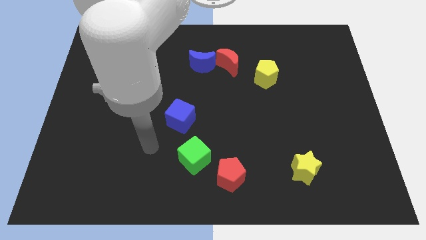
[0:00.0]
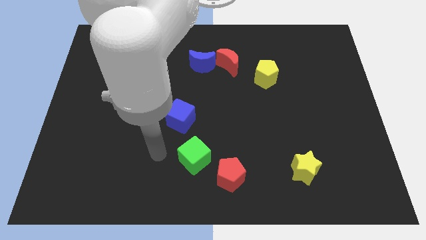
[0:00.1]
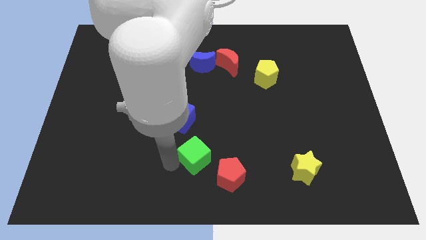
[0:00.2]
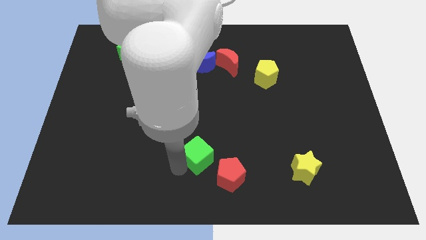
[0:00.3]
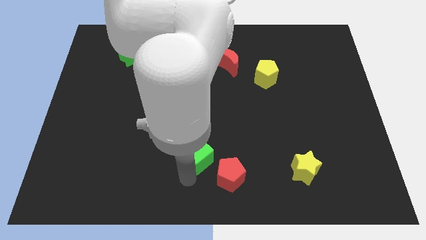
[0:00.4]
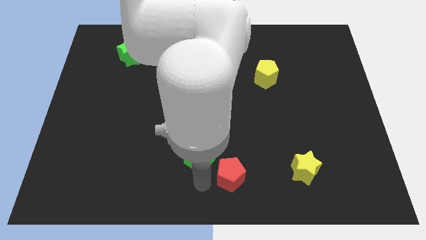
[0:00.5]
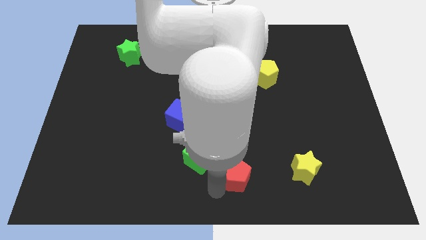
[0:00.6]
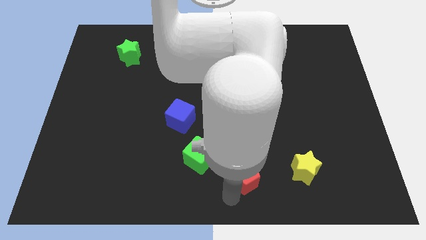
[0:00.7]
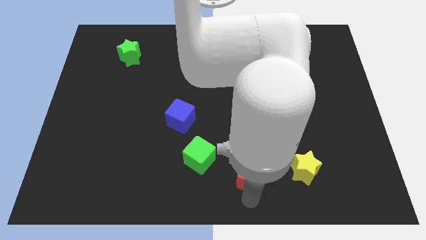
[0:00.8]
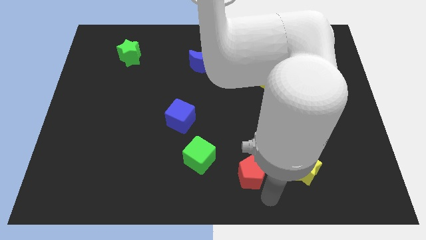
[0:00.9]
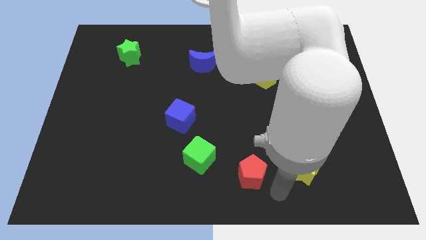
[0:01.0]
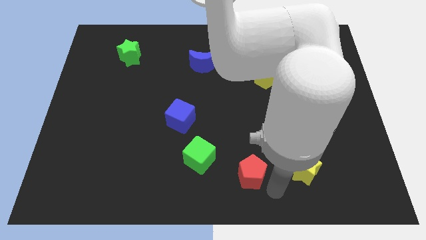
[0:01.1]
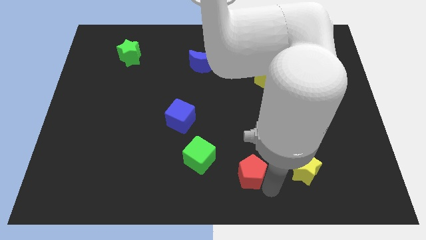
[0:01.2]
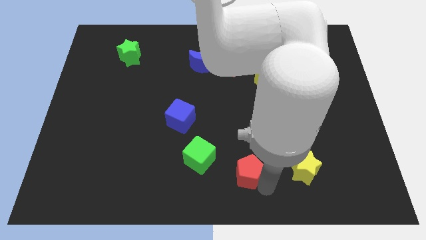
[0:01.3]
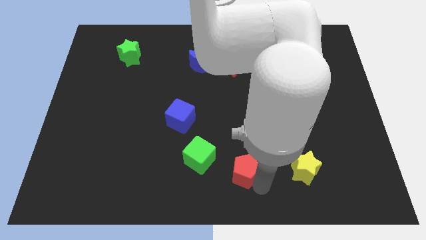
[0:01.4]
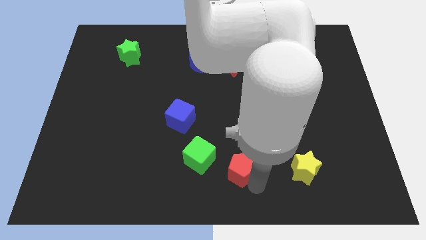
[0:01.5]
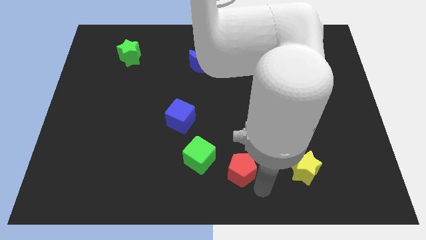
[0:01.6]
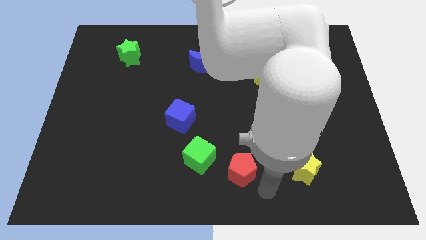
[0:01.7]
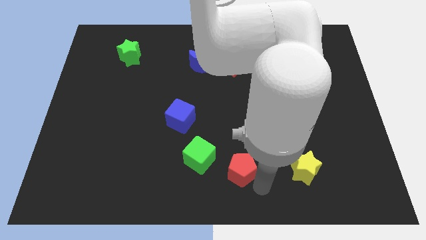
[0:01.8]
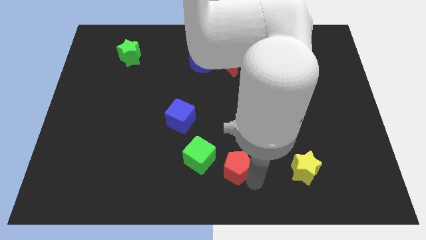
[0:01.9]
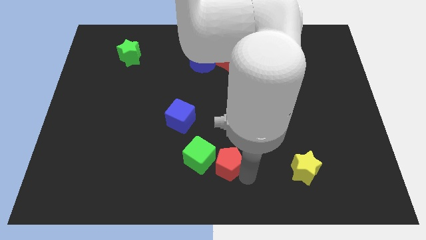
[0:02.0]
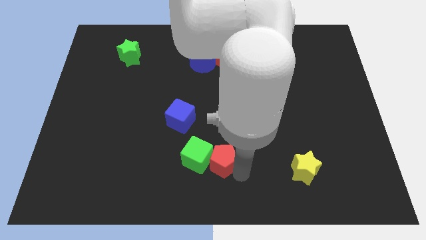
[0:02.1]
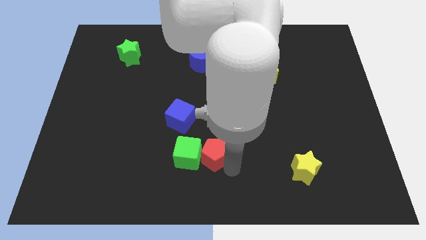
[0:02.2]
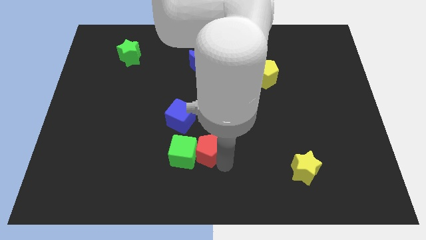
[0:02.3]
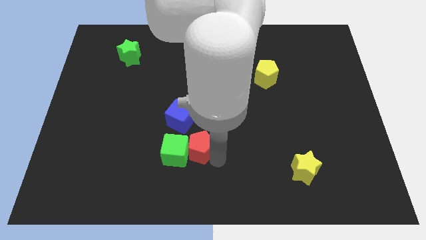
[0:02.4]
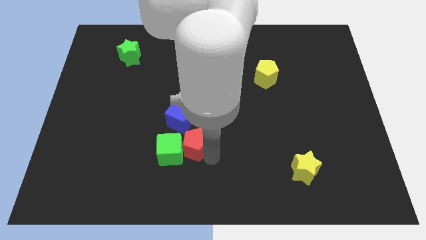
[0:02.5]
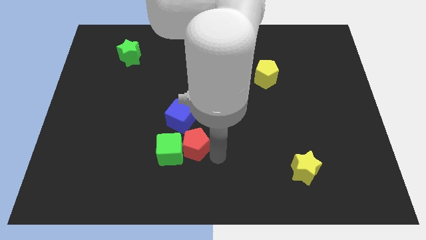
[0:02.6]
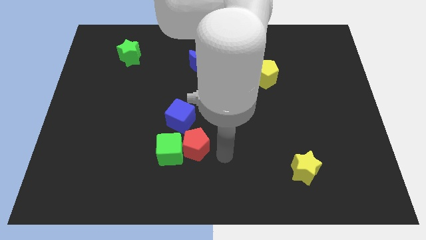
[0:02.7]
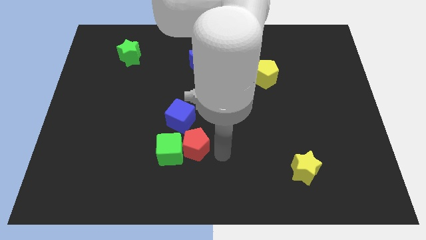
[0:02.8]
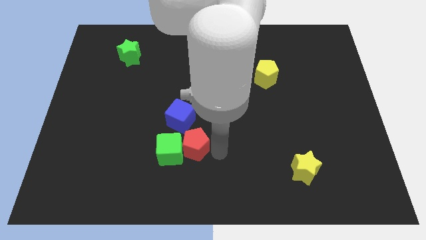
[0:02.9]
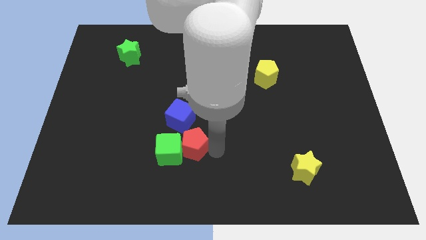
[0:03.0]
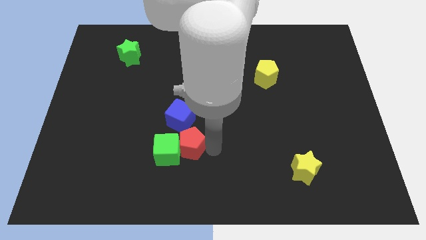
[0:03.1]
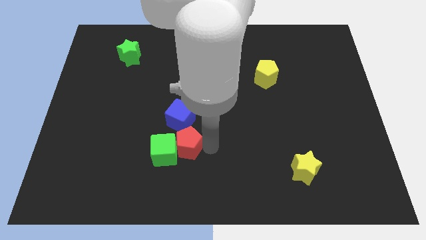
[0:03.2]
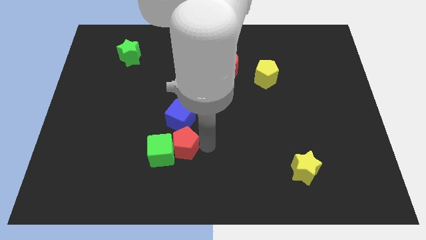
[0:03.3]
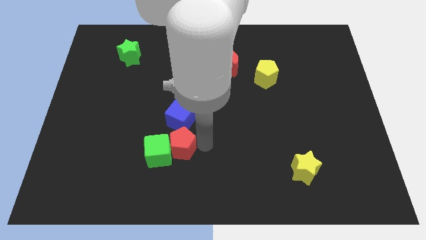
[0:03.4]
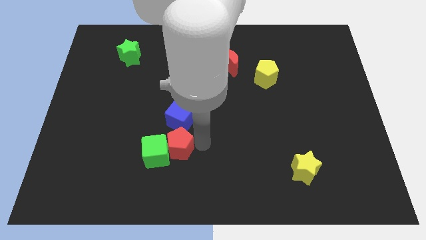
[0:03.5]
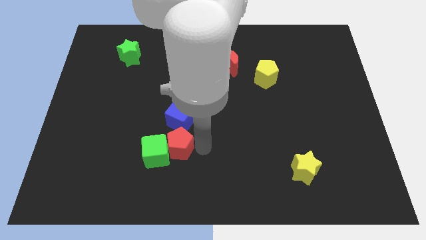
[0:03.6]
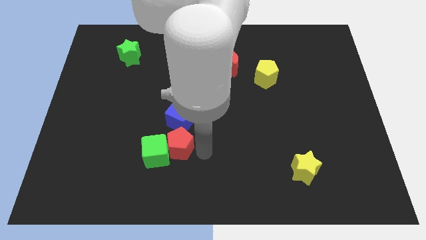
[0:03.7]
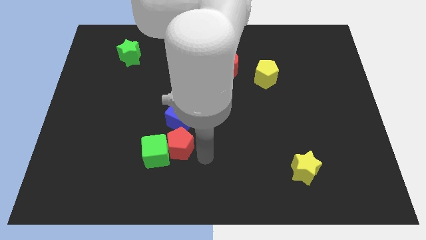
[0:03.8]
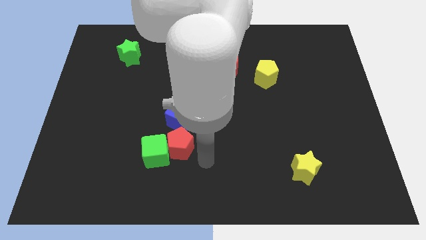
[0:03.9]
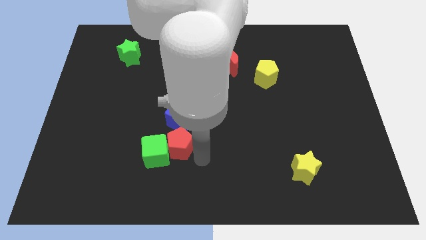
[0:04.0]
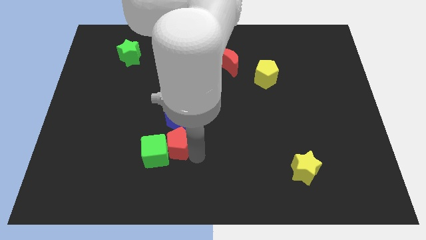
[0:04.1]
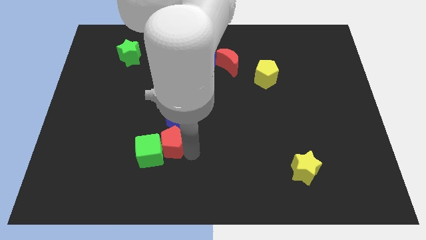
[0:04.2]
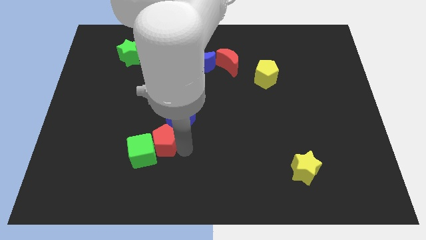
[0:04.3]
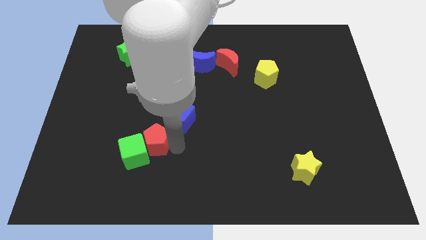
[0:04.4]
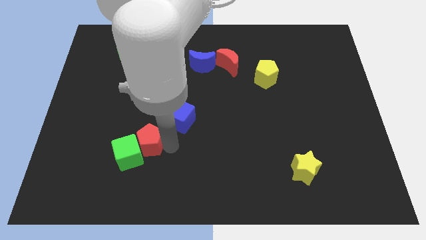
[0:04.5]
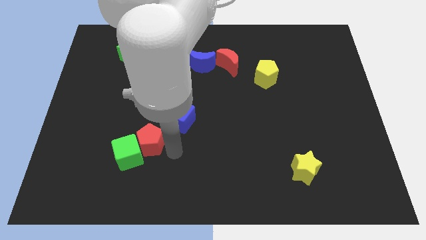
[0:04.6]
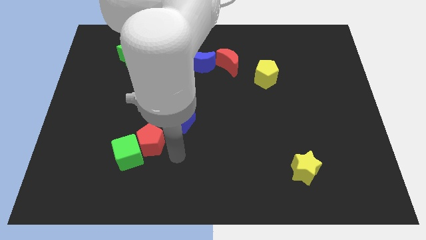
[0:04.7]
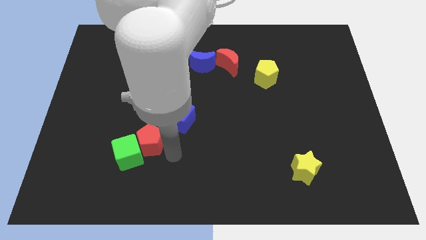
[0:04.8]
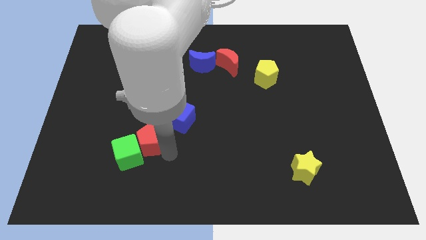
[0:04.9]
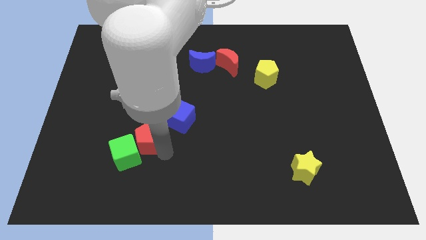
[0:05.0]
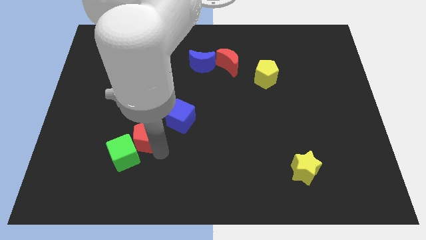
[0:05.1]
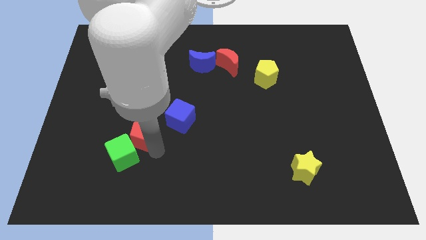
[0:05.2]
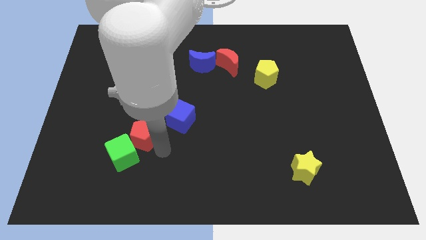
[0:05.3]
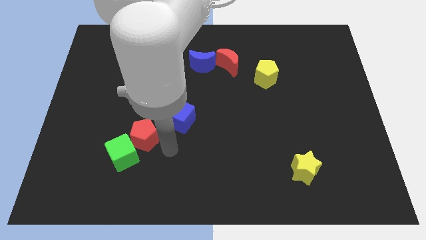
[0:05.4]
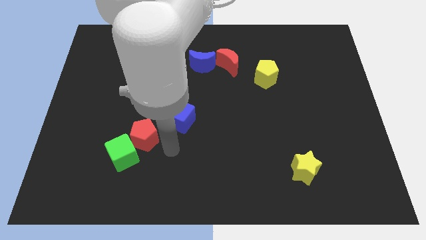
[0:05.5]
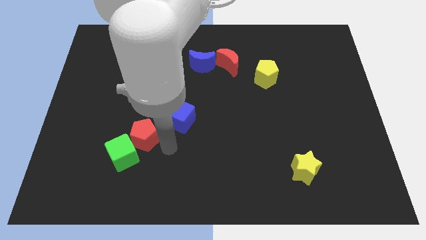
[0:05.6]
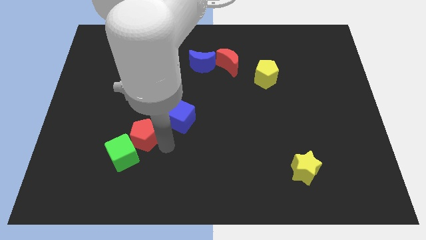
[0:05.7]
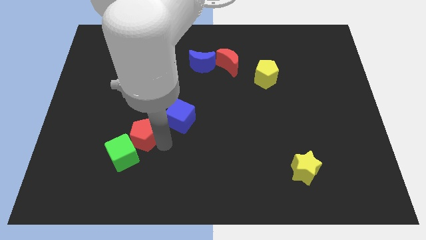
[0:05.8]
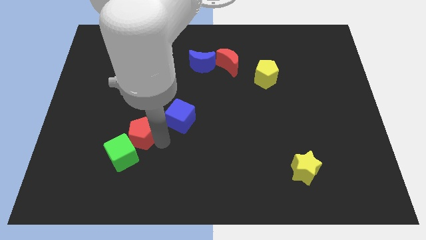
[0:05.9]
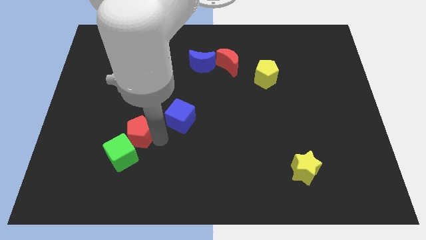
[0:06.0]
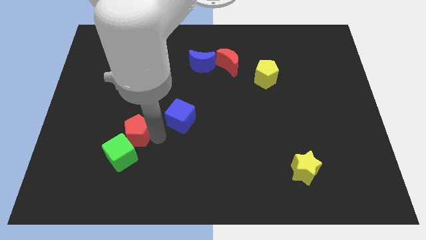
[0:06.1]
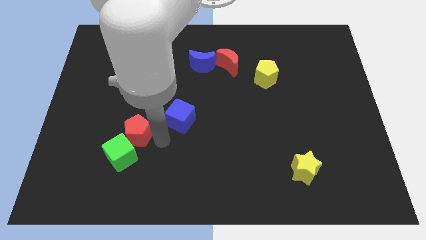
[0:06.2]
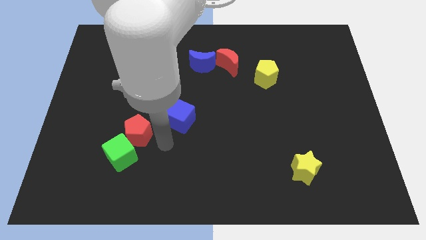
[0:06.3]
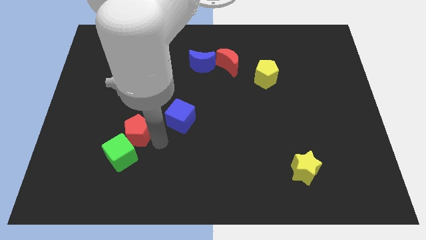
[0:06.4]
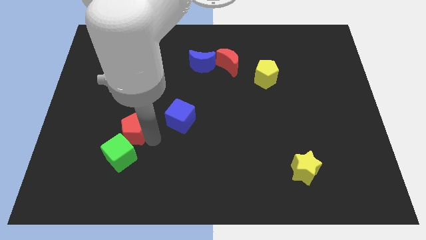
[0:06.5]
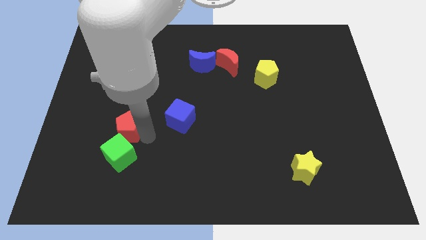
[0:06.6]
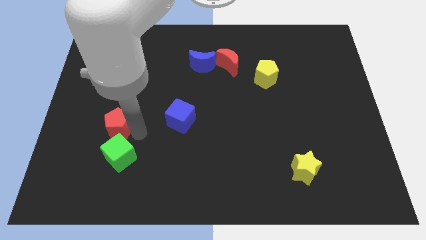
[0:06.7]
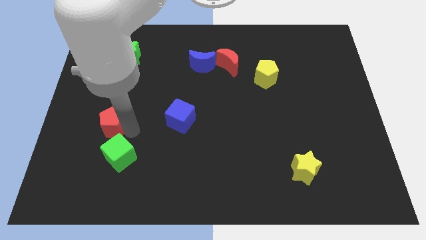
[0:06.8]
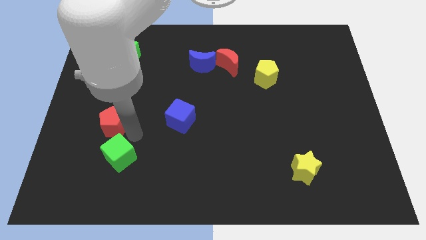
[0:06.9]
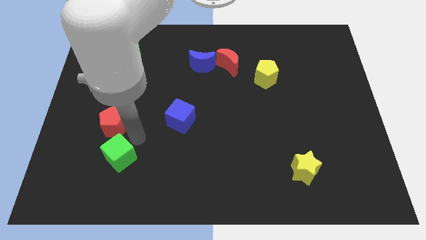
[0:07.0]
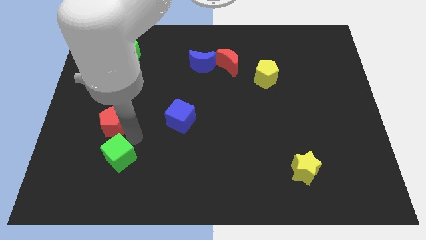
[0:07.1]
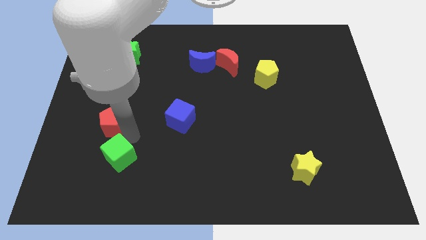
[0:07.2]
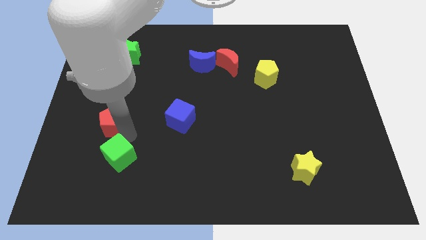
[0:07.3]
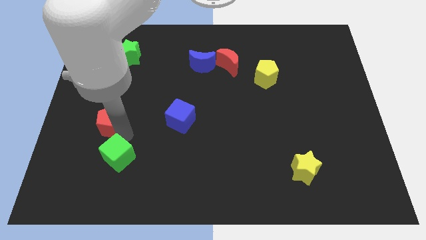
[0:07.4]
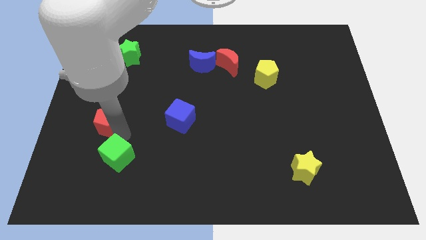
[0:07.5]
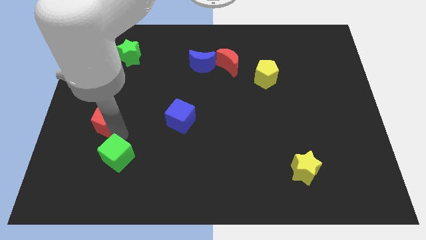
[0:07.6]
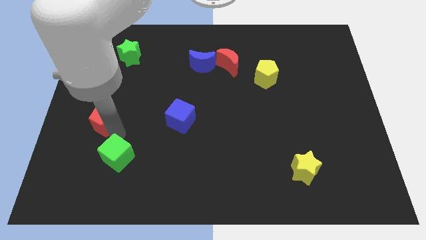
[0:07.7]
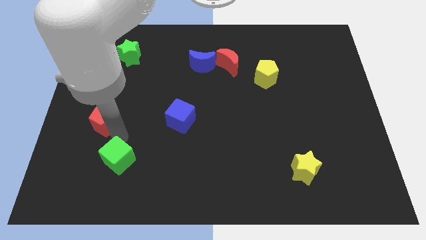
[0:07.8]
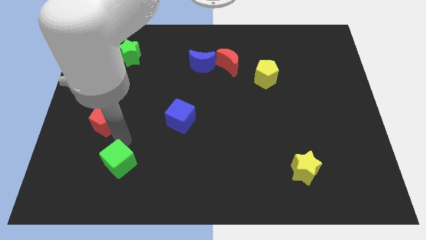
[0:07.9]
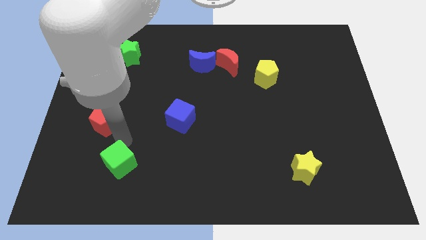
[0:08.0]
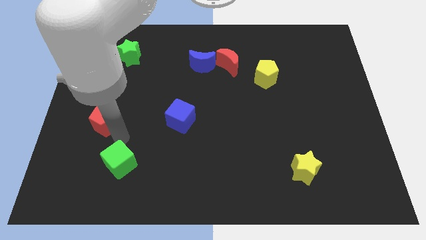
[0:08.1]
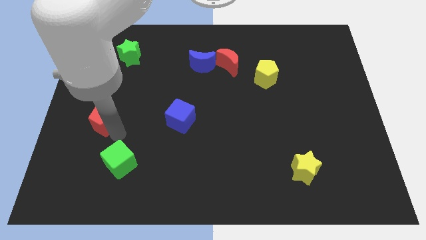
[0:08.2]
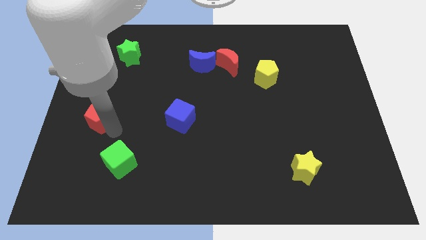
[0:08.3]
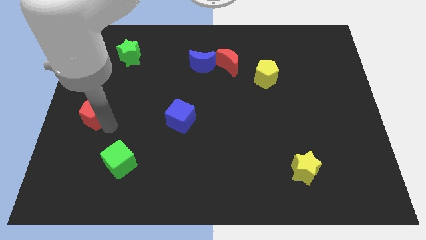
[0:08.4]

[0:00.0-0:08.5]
put the red pentagon to the left side of the board
